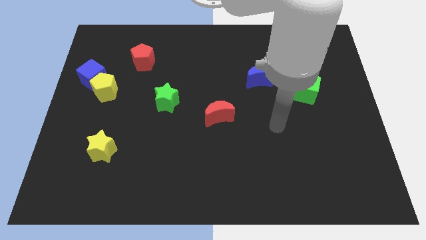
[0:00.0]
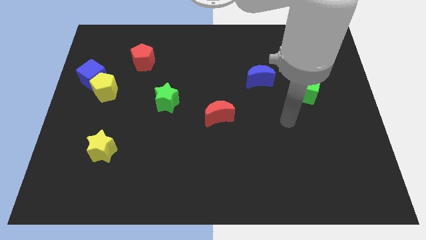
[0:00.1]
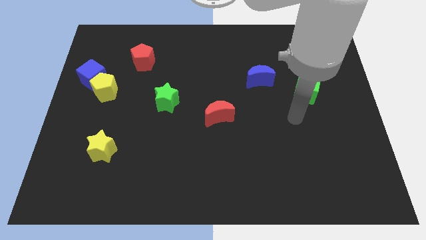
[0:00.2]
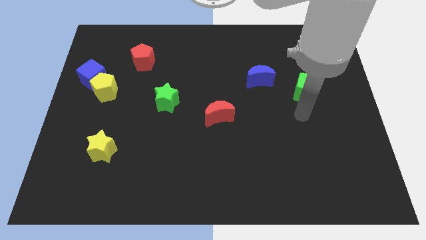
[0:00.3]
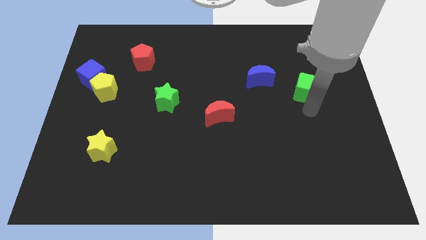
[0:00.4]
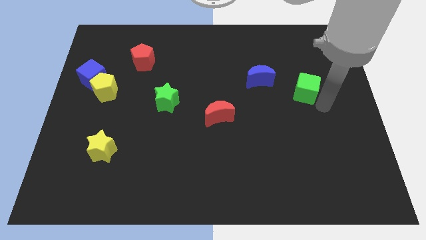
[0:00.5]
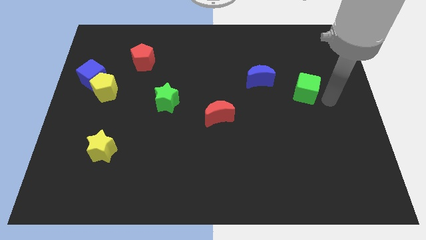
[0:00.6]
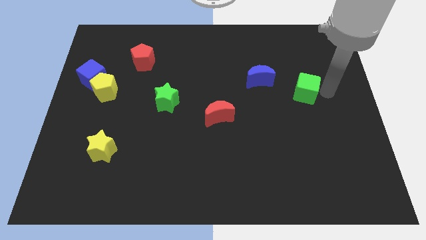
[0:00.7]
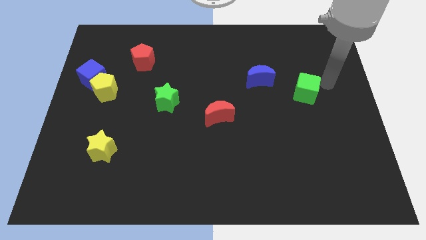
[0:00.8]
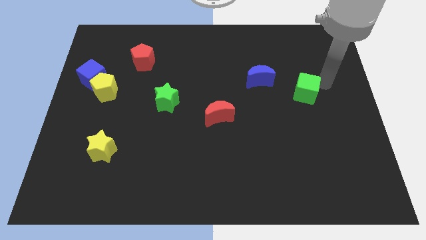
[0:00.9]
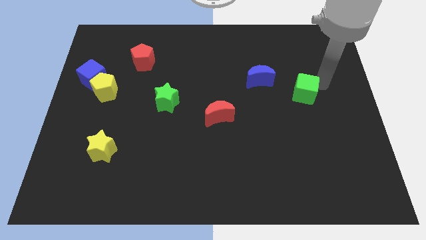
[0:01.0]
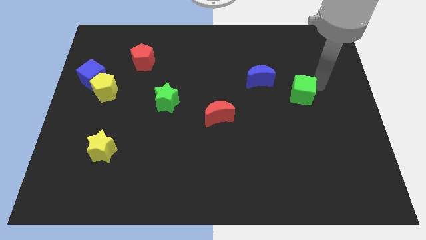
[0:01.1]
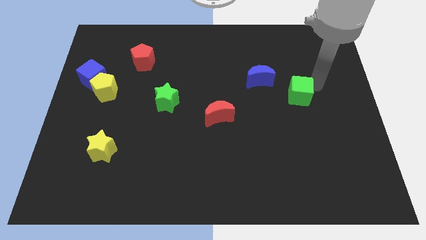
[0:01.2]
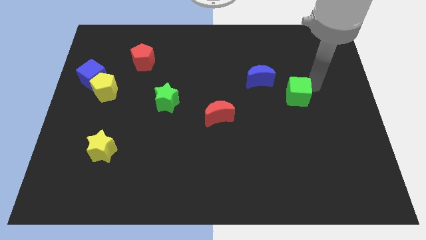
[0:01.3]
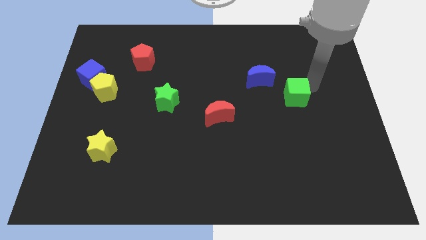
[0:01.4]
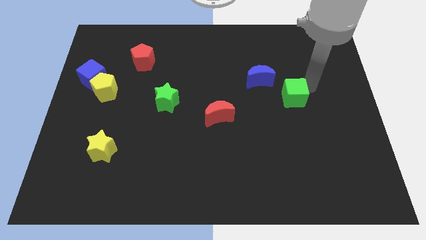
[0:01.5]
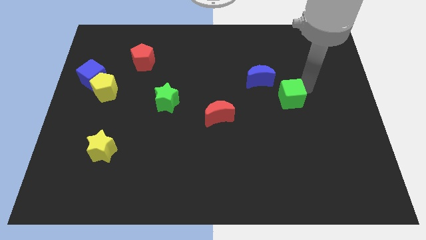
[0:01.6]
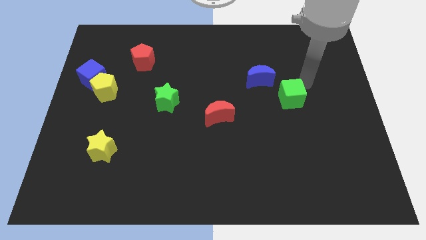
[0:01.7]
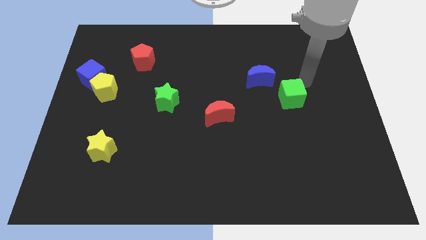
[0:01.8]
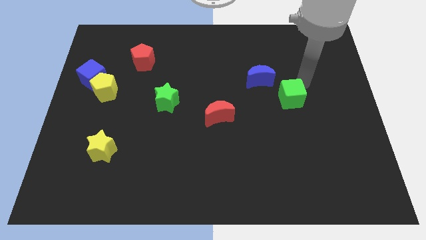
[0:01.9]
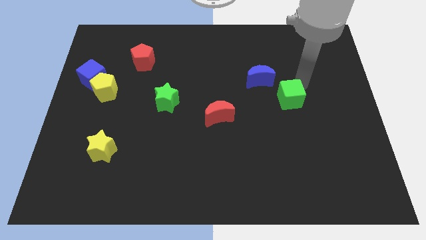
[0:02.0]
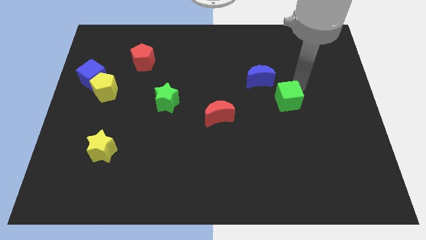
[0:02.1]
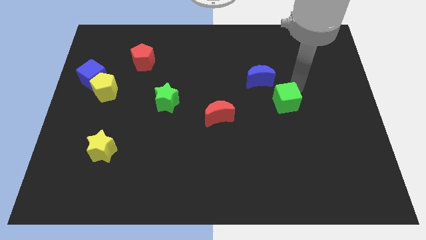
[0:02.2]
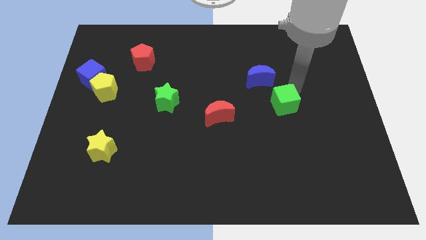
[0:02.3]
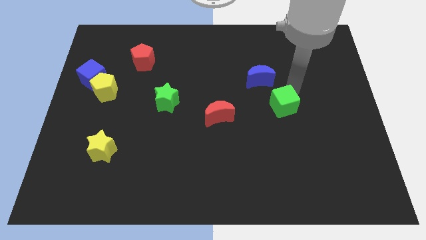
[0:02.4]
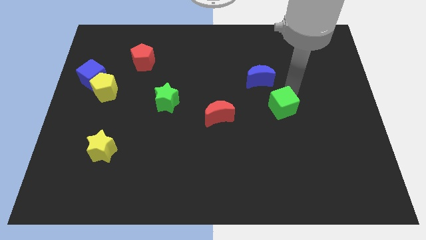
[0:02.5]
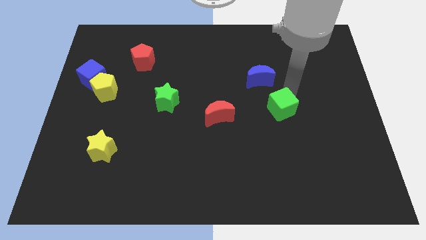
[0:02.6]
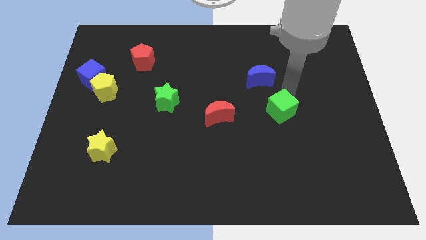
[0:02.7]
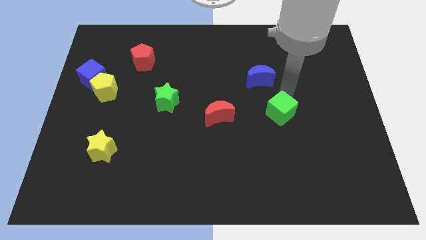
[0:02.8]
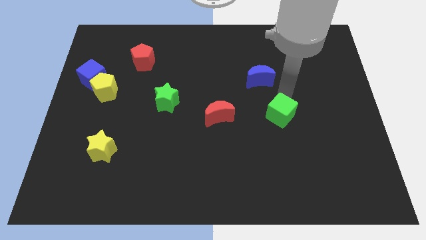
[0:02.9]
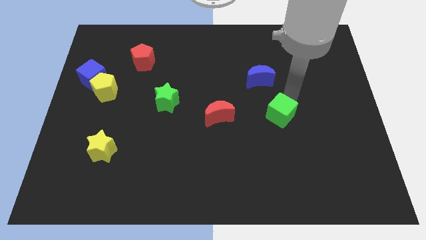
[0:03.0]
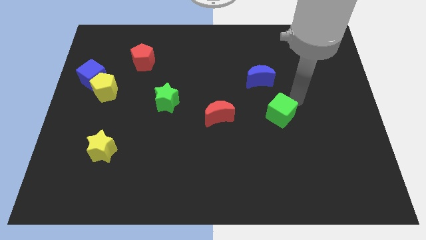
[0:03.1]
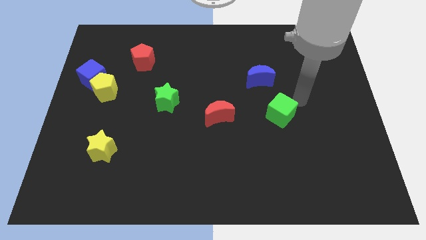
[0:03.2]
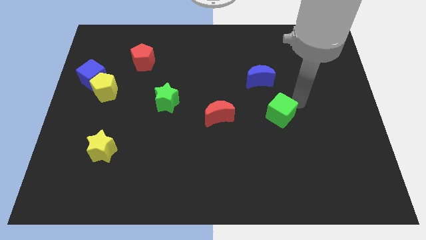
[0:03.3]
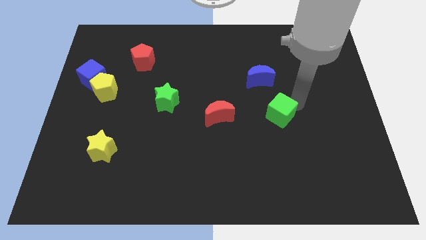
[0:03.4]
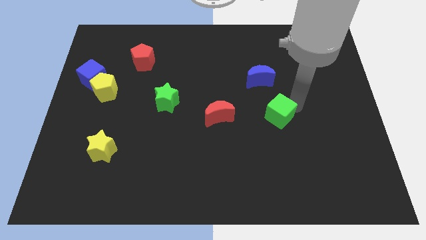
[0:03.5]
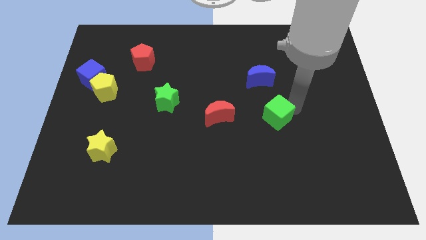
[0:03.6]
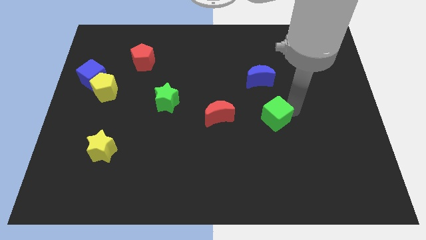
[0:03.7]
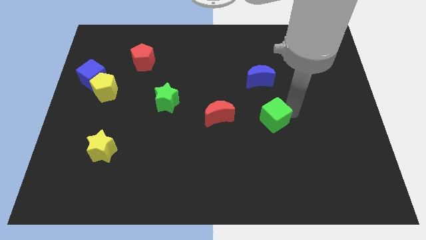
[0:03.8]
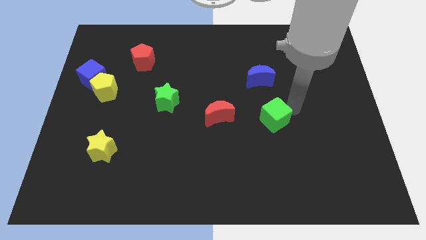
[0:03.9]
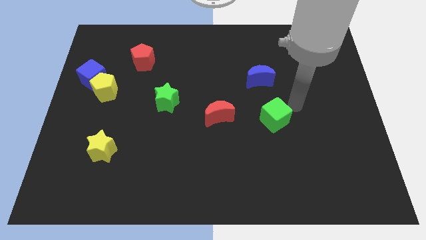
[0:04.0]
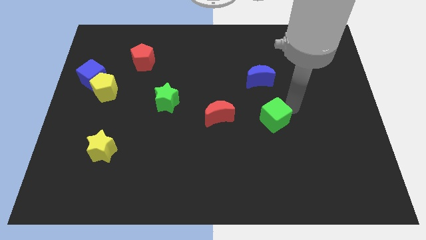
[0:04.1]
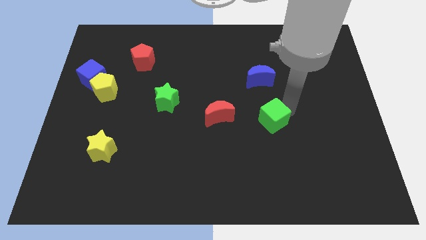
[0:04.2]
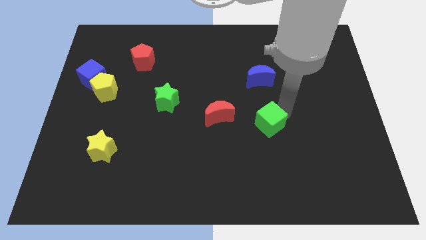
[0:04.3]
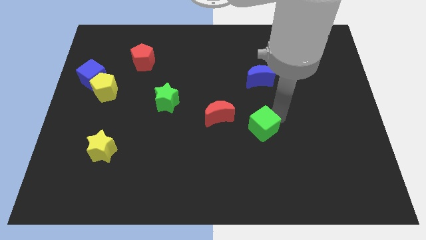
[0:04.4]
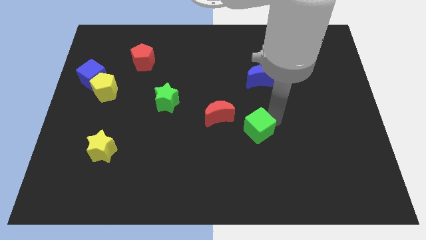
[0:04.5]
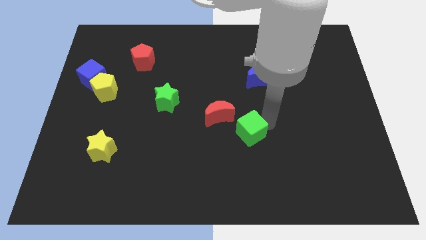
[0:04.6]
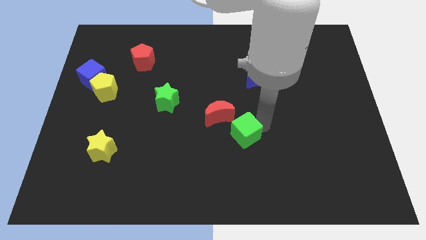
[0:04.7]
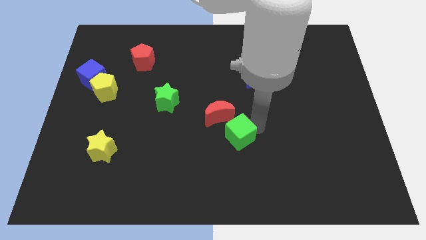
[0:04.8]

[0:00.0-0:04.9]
put the green cube to the bottom of the red moon

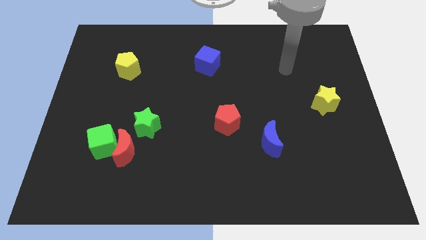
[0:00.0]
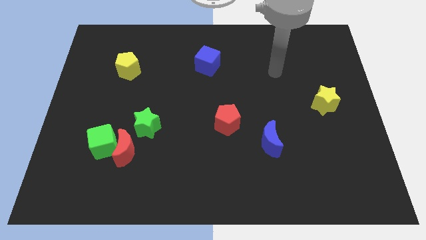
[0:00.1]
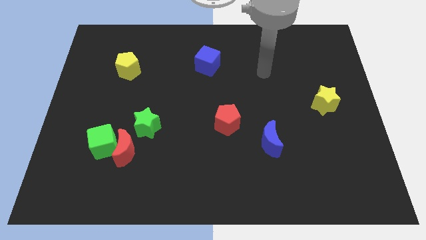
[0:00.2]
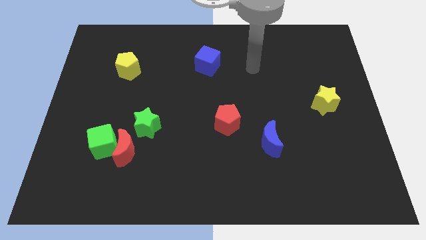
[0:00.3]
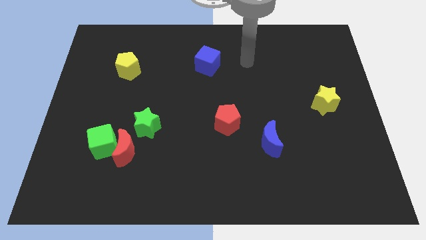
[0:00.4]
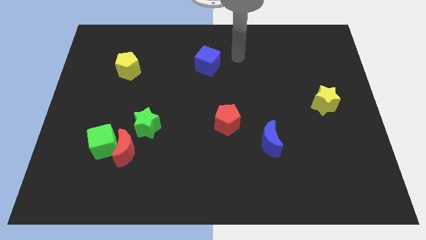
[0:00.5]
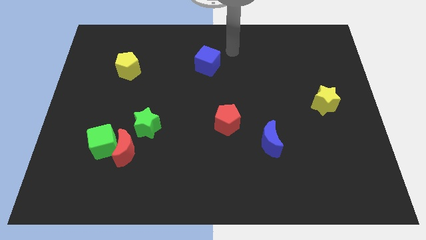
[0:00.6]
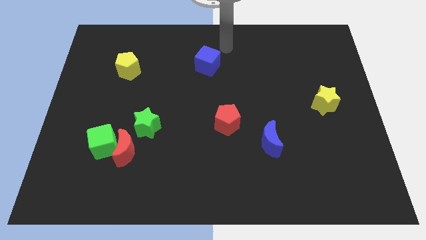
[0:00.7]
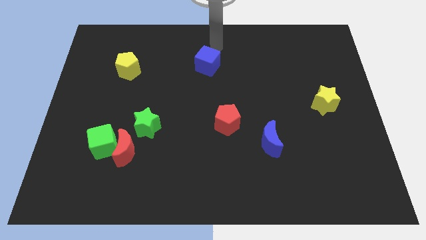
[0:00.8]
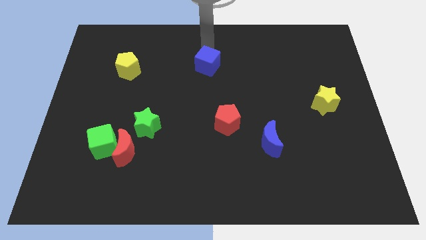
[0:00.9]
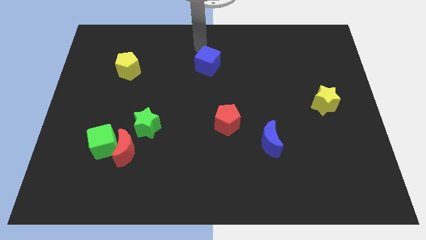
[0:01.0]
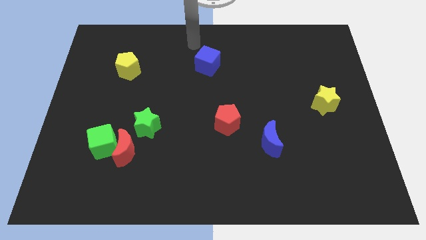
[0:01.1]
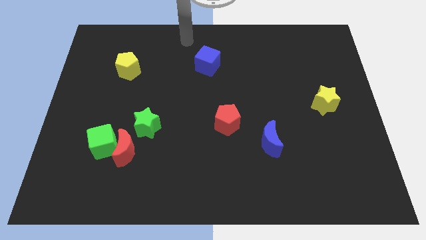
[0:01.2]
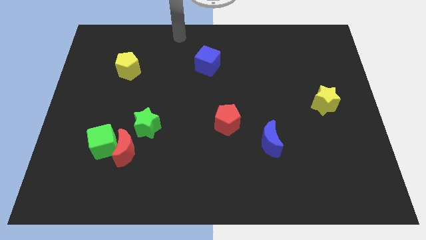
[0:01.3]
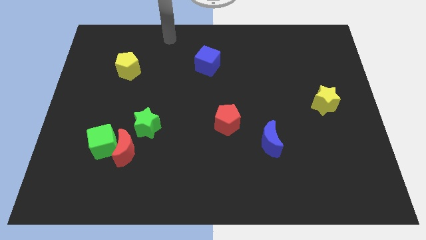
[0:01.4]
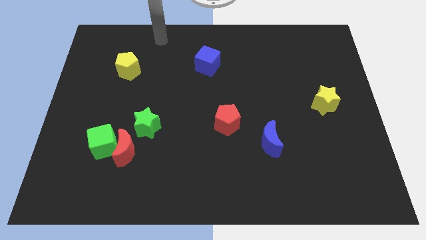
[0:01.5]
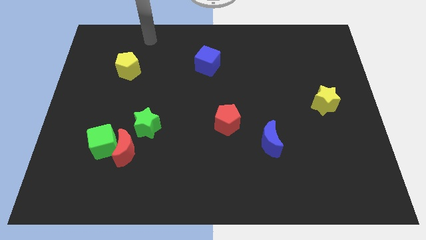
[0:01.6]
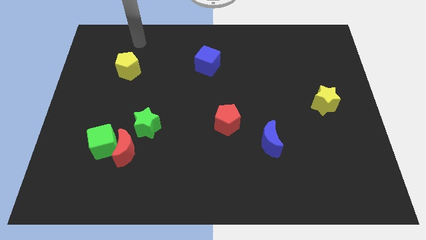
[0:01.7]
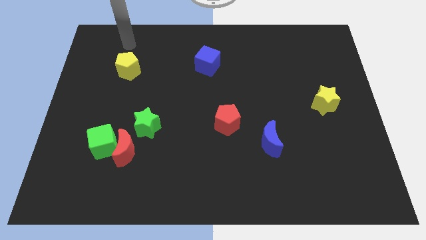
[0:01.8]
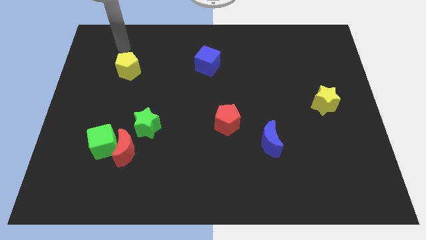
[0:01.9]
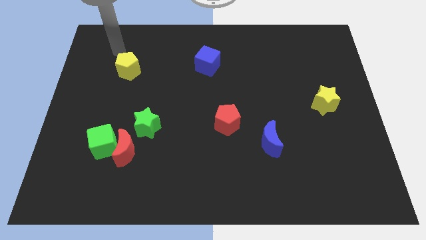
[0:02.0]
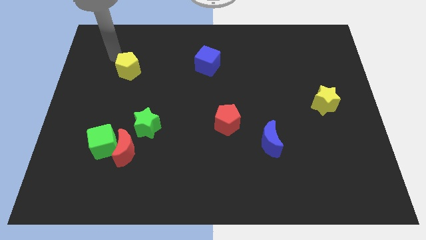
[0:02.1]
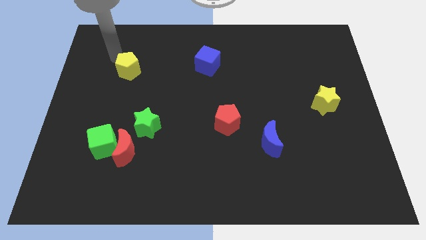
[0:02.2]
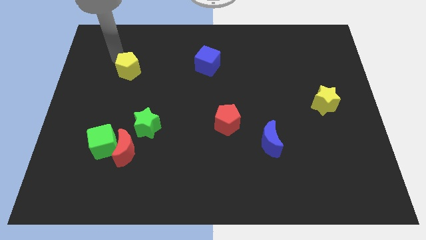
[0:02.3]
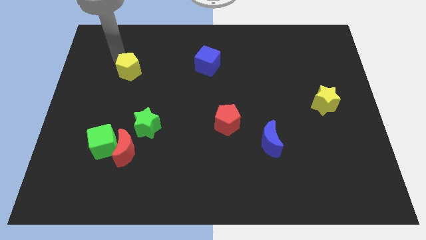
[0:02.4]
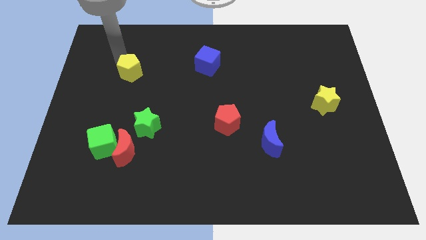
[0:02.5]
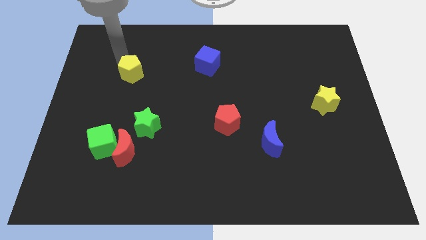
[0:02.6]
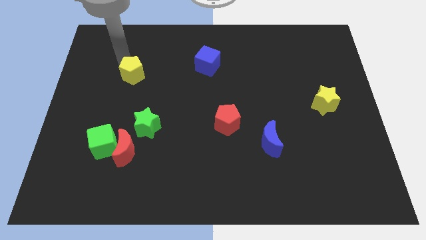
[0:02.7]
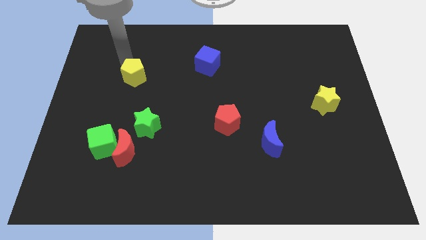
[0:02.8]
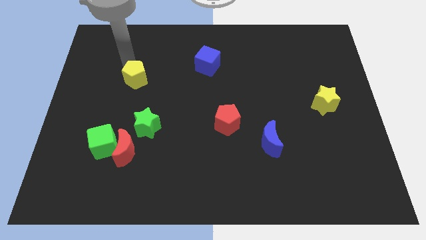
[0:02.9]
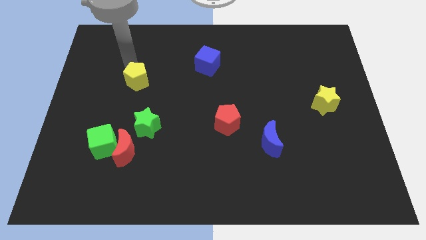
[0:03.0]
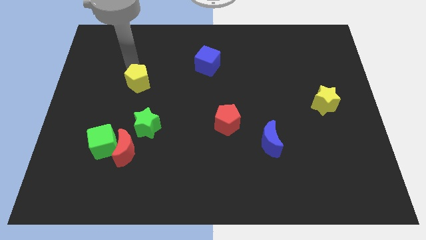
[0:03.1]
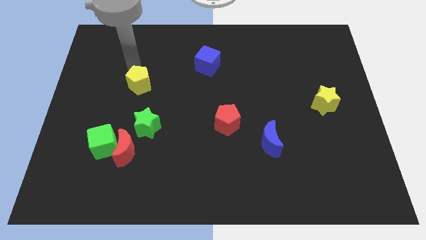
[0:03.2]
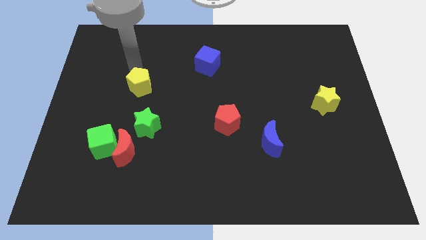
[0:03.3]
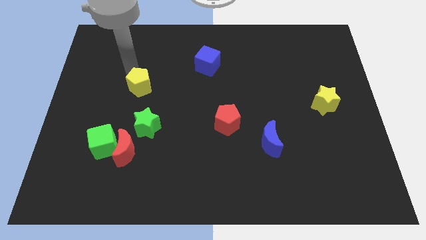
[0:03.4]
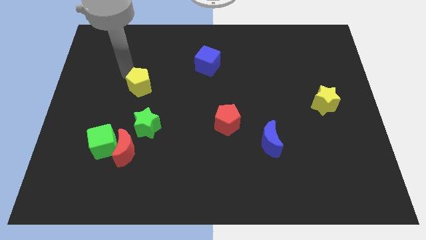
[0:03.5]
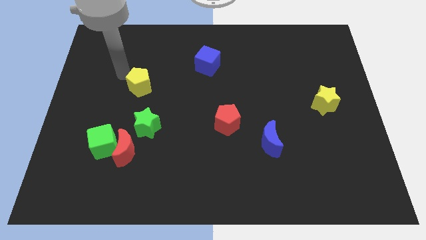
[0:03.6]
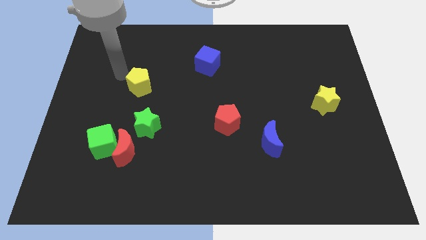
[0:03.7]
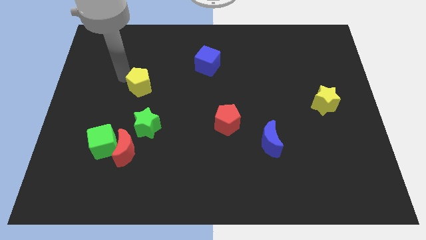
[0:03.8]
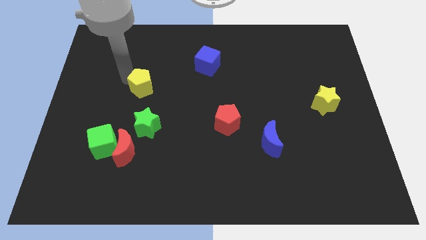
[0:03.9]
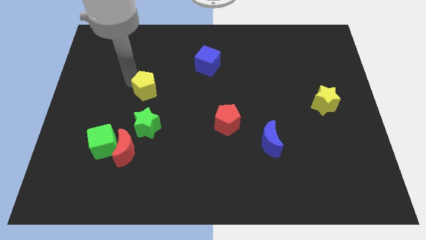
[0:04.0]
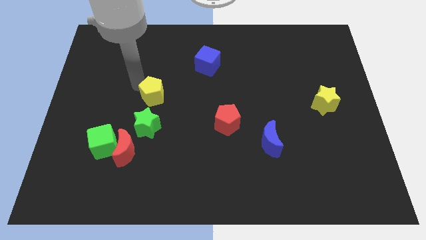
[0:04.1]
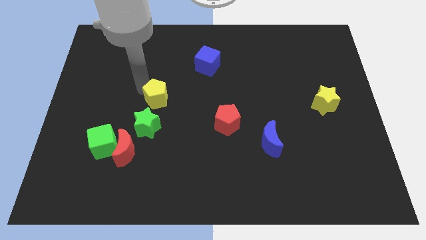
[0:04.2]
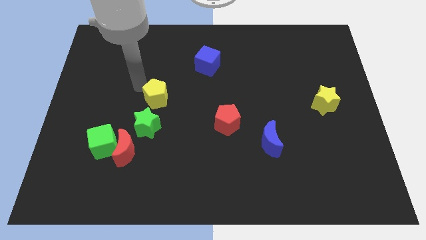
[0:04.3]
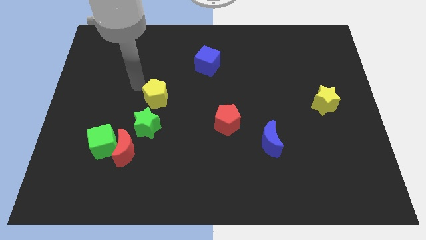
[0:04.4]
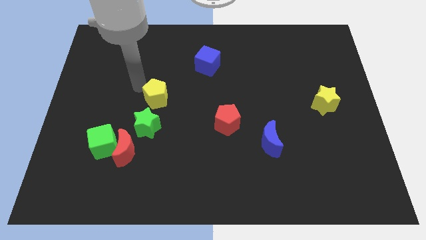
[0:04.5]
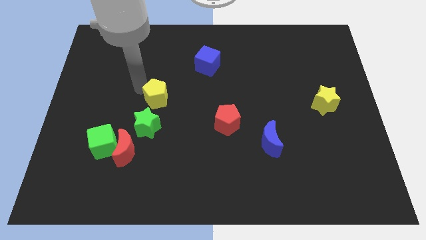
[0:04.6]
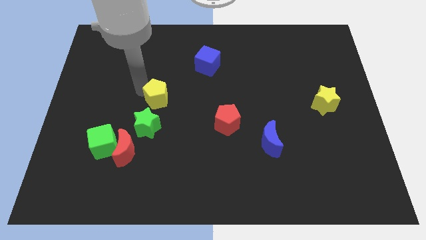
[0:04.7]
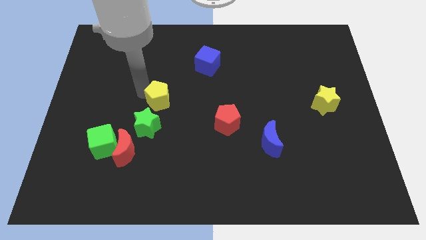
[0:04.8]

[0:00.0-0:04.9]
push the yellow pentagon to the top right side of the green star
